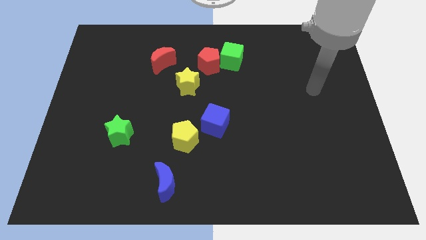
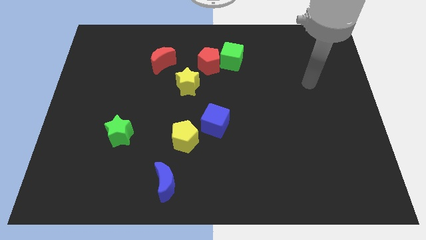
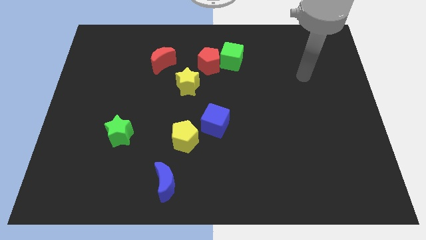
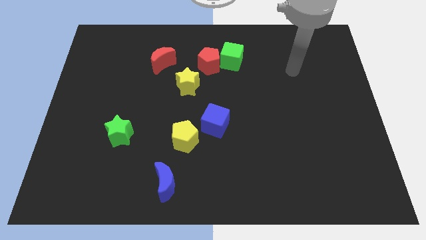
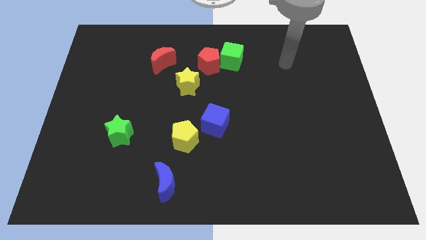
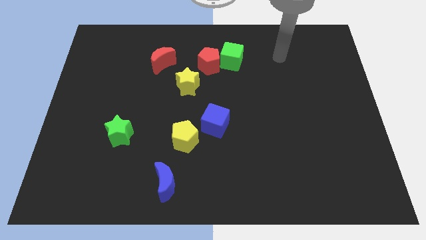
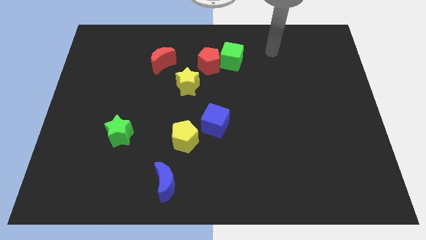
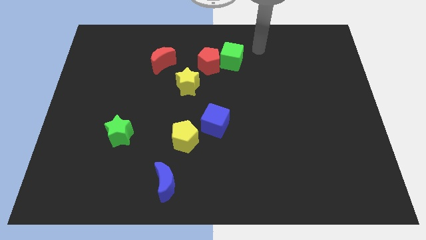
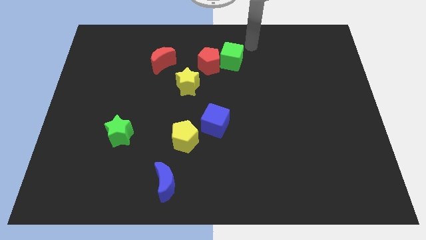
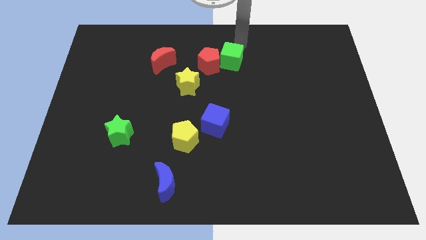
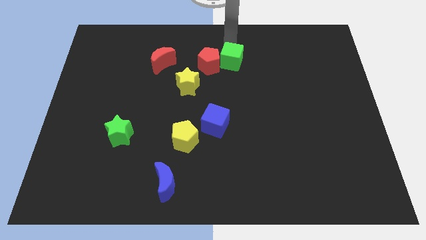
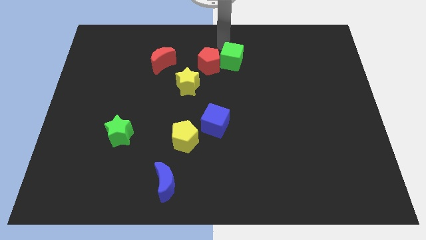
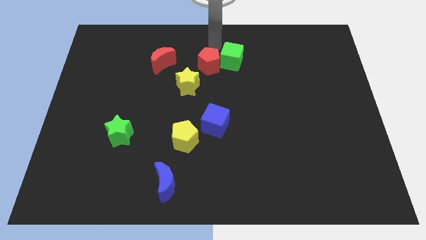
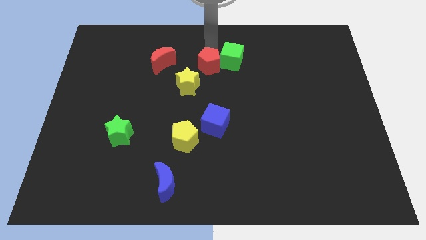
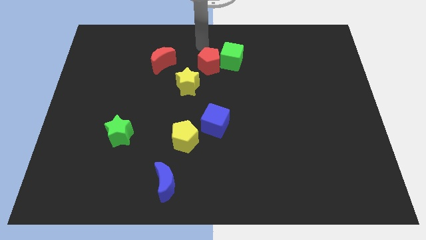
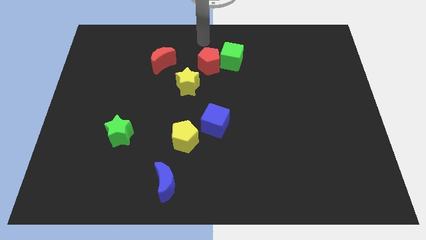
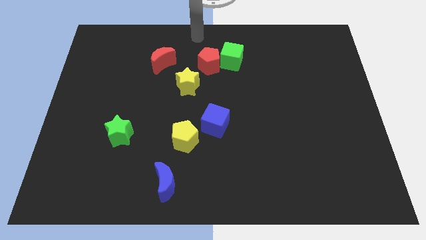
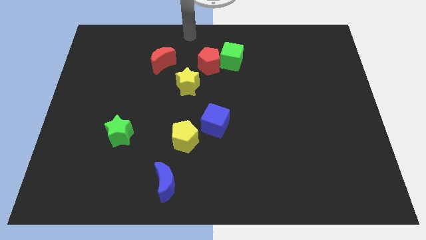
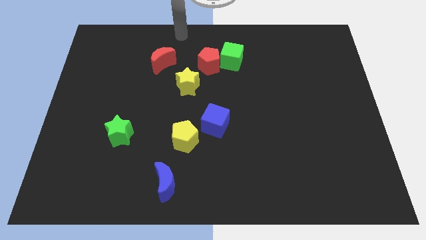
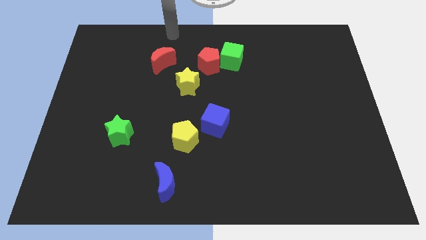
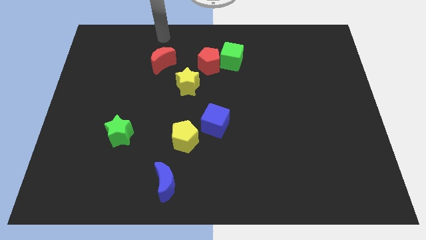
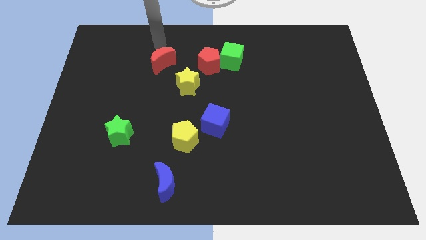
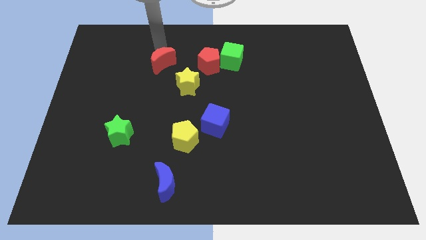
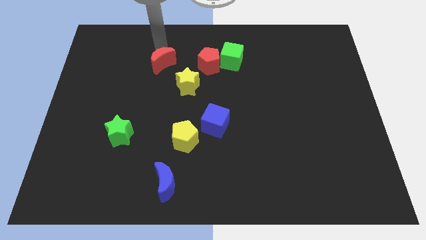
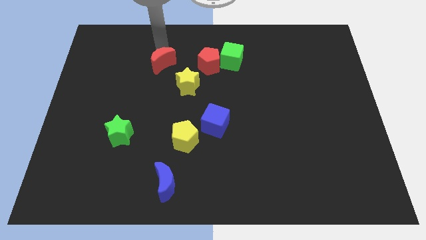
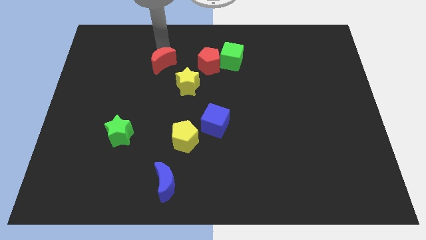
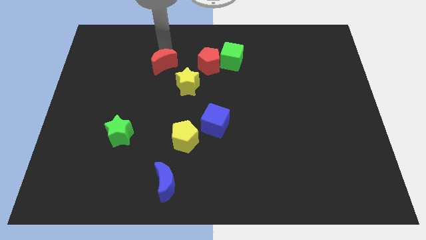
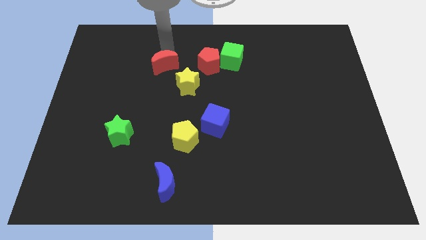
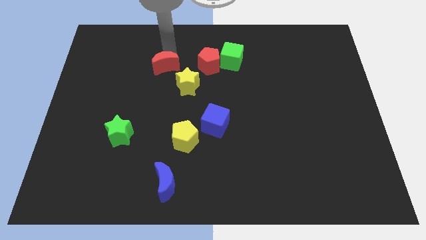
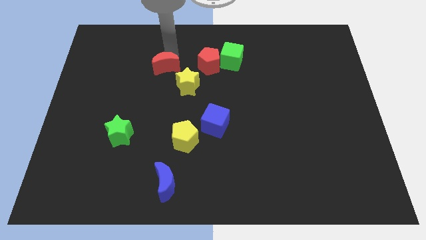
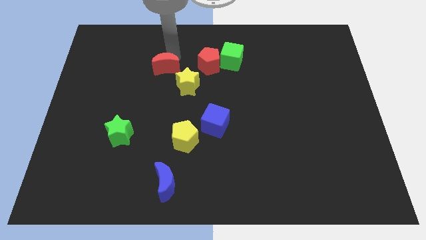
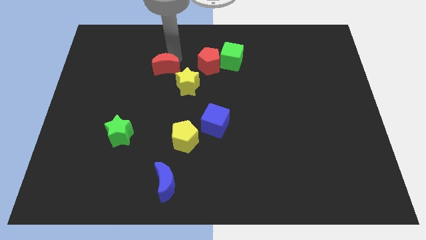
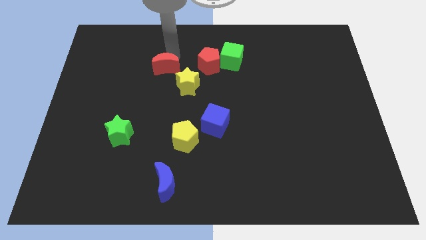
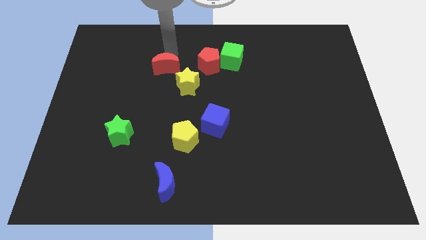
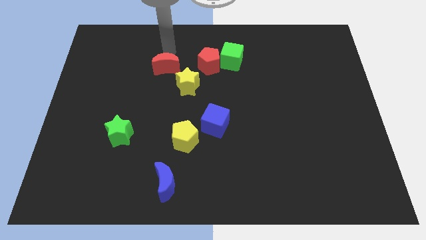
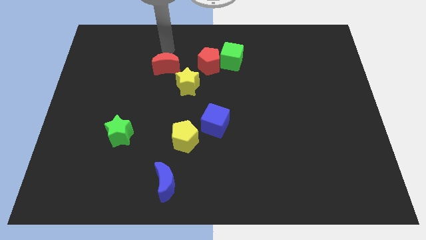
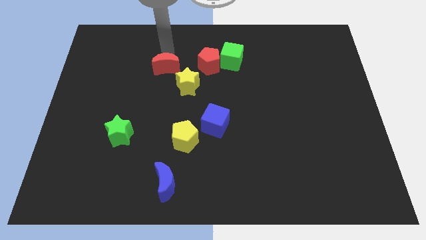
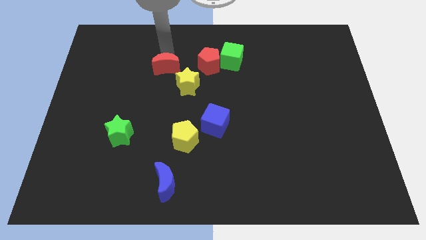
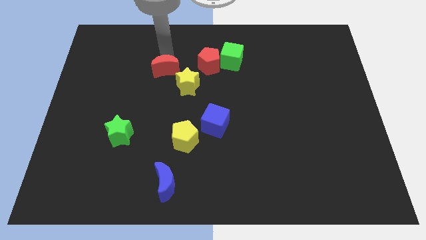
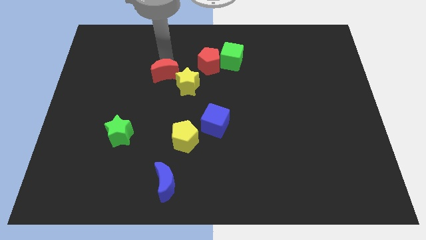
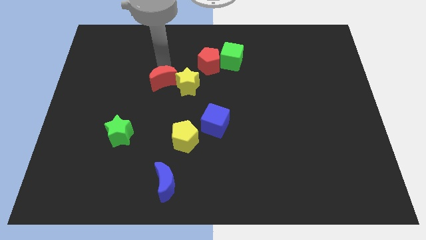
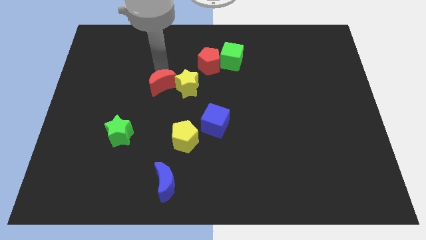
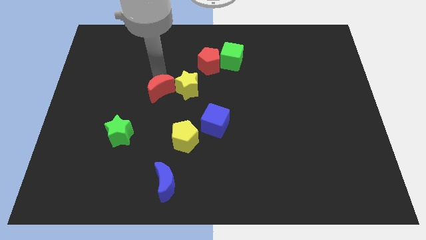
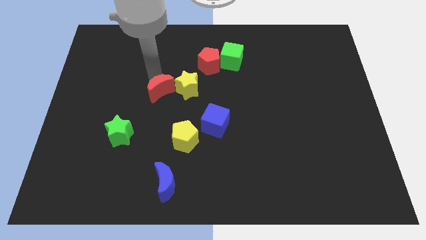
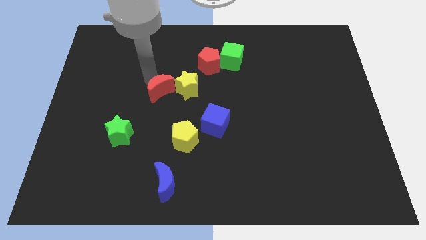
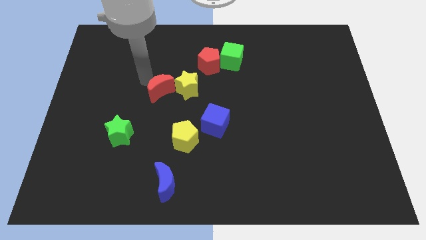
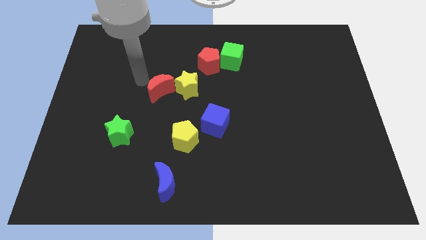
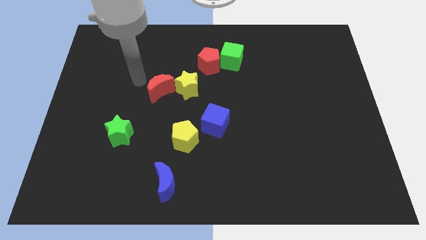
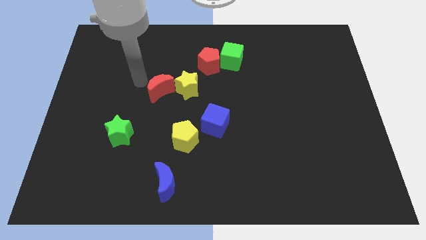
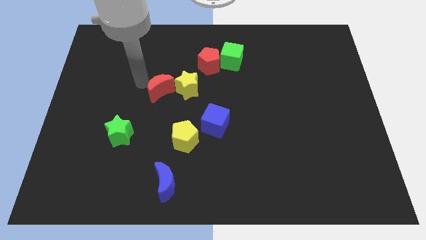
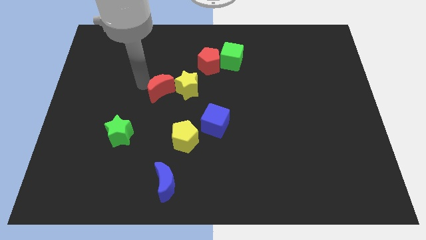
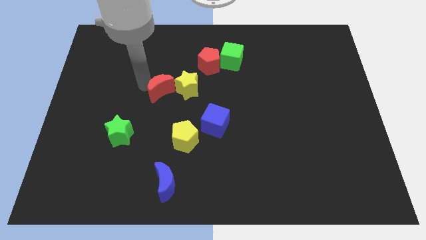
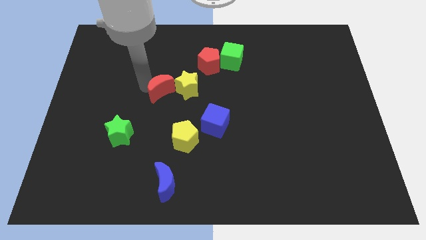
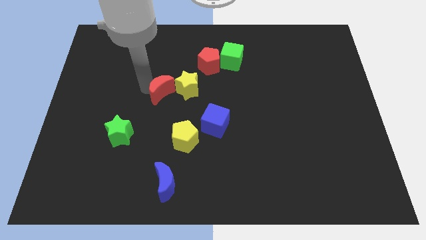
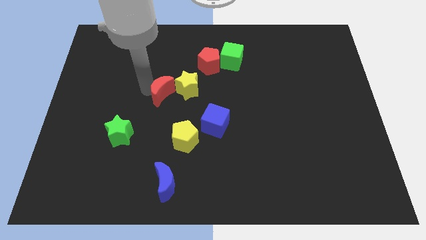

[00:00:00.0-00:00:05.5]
push the red moon to the middle
